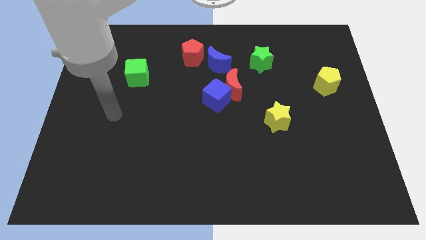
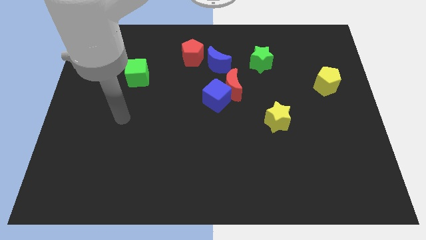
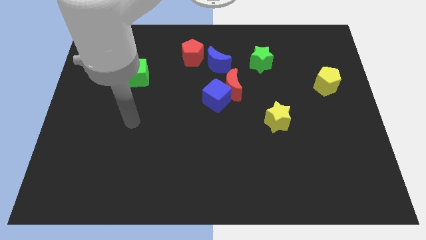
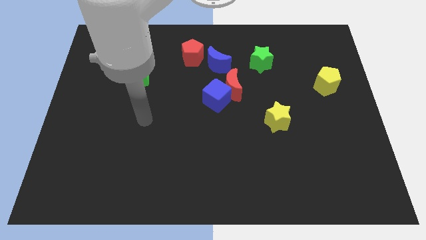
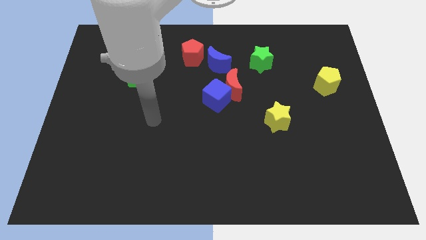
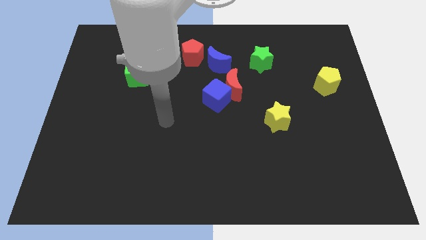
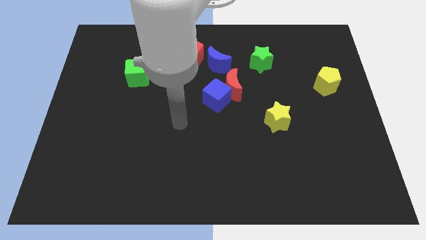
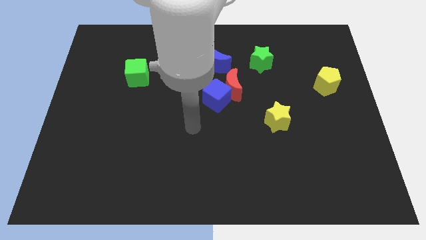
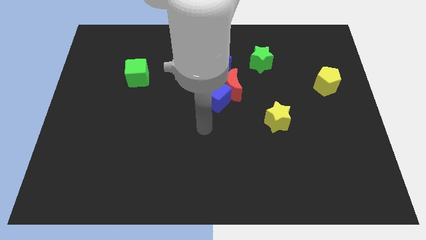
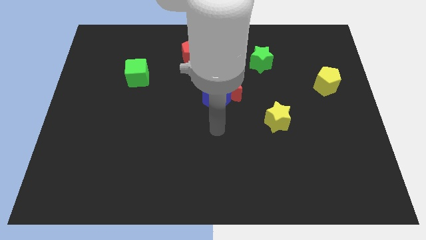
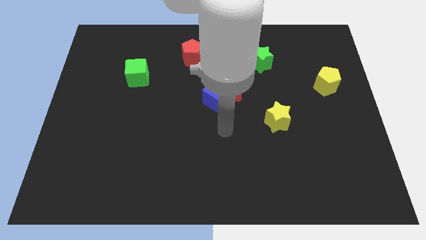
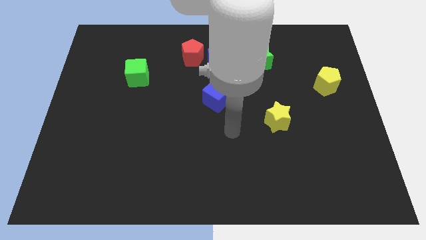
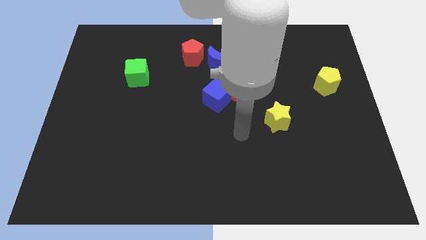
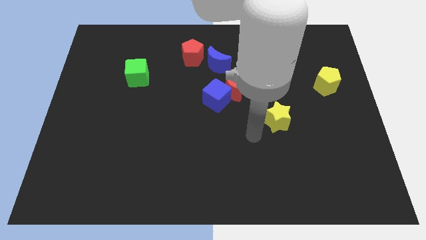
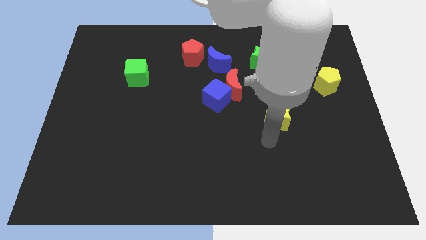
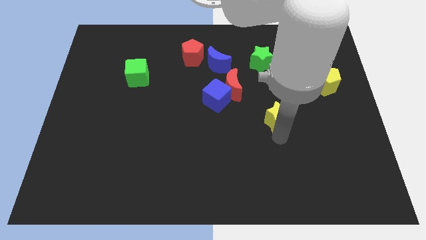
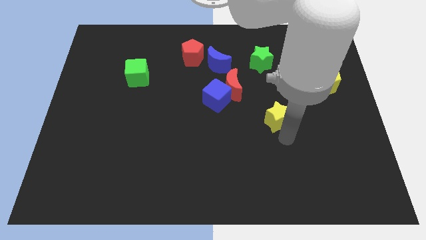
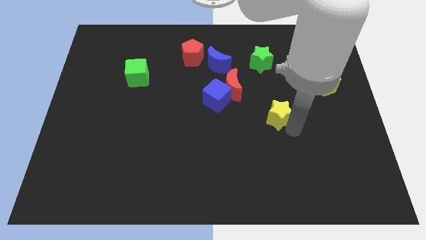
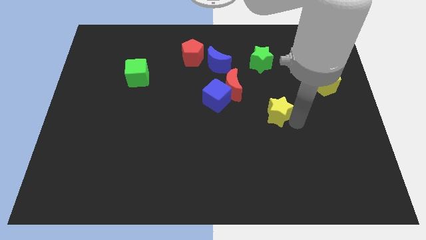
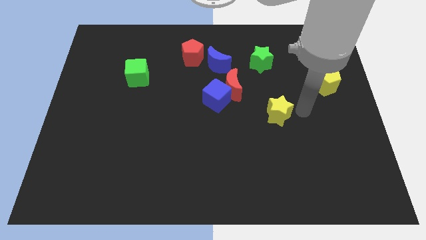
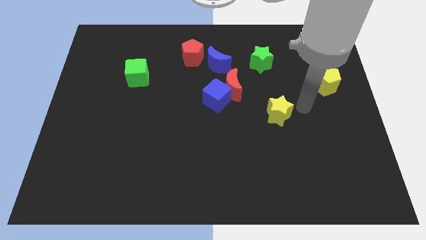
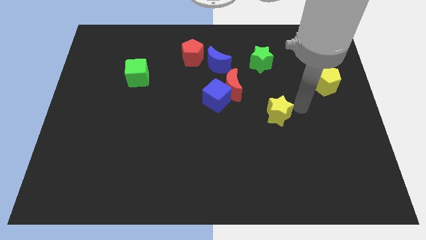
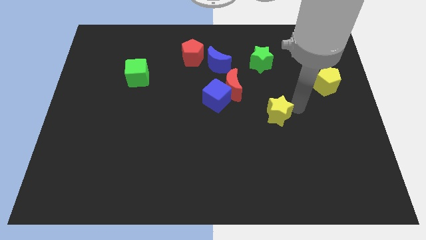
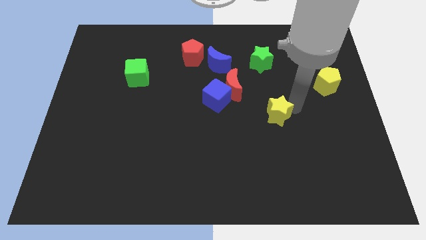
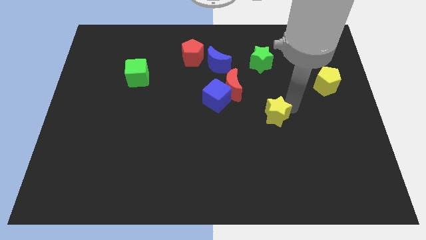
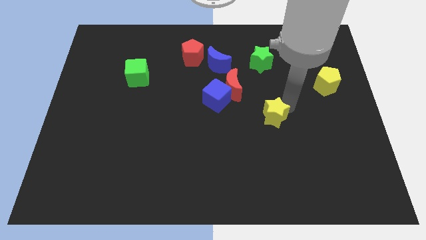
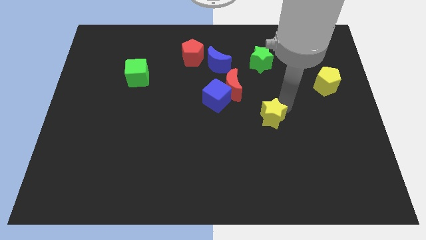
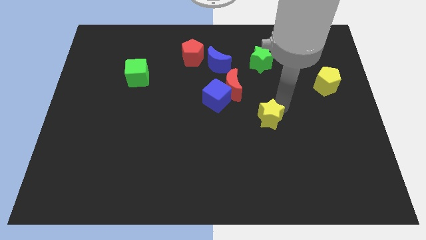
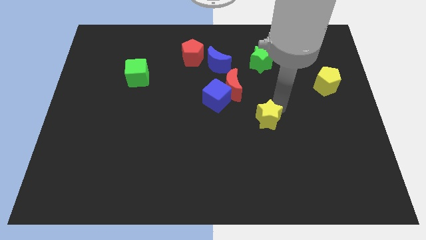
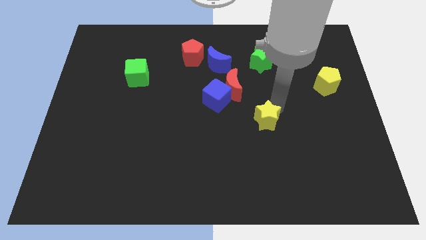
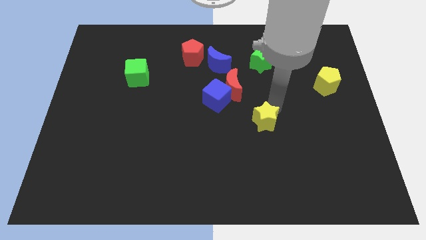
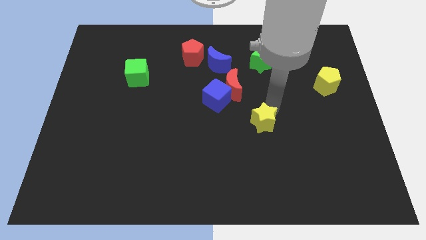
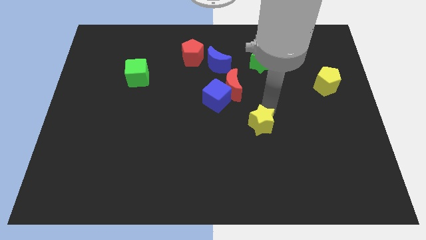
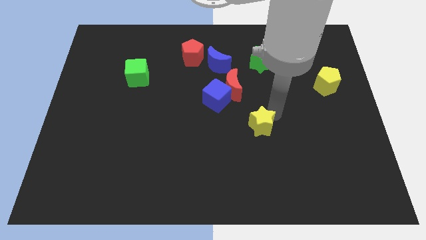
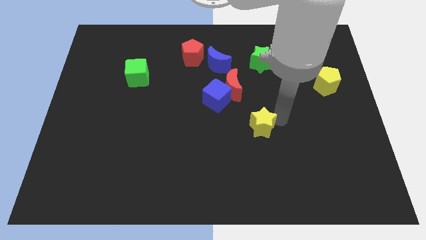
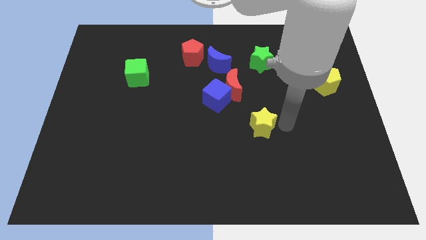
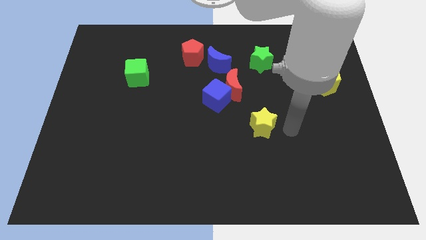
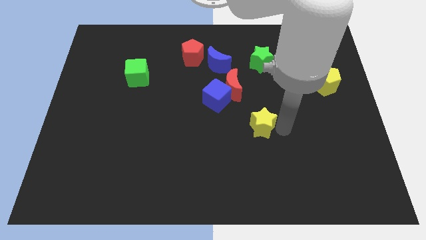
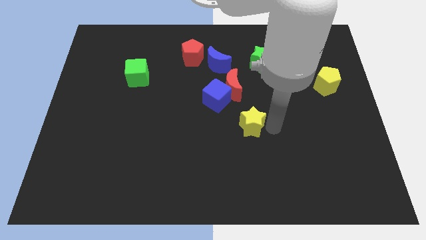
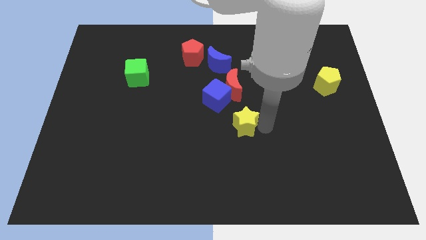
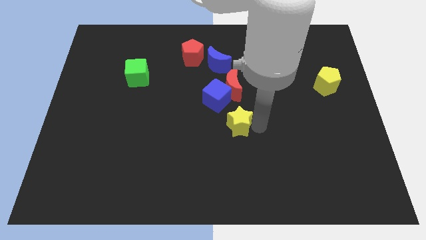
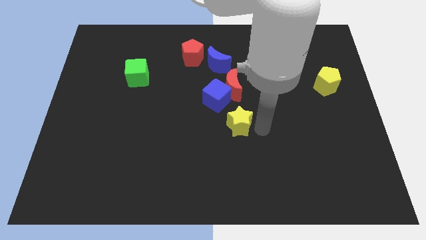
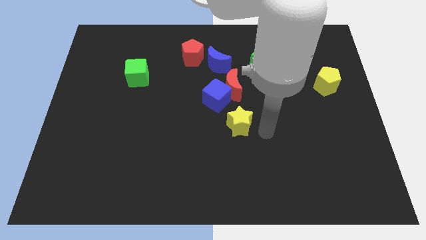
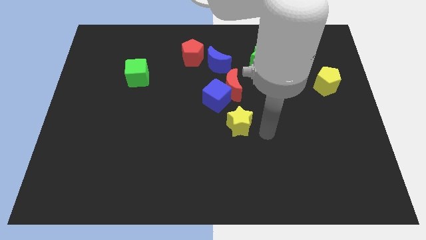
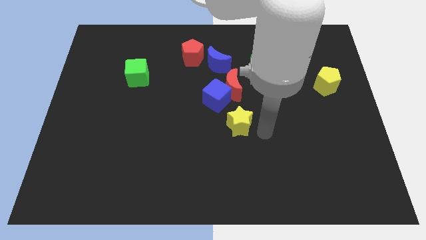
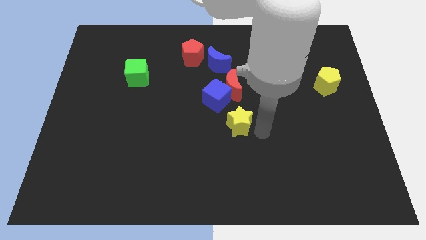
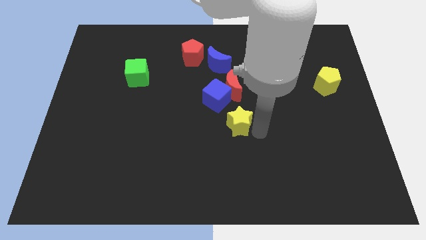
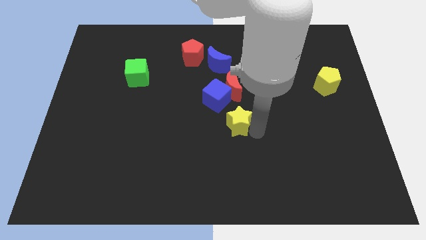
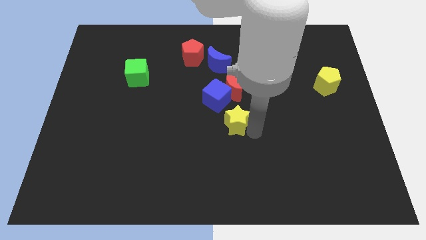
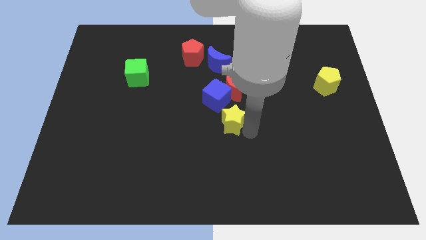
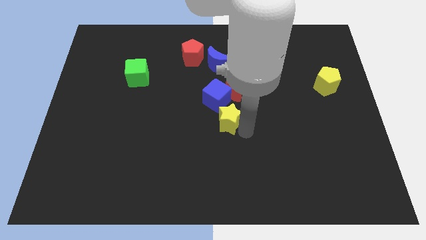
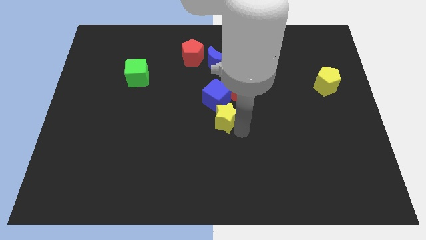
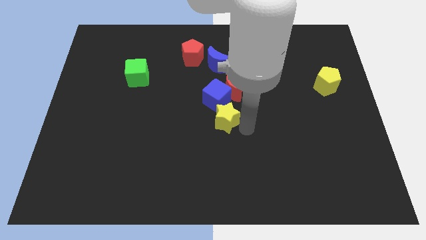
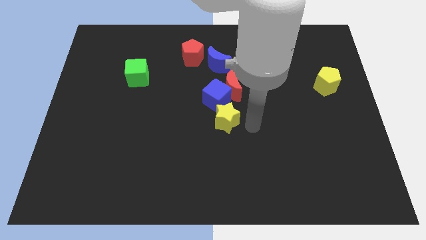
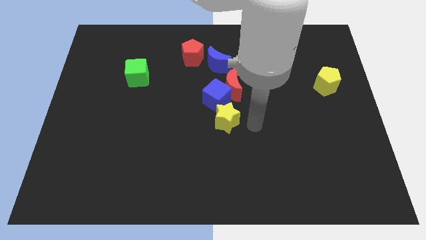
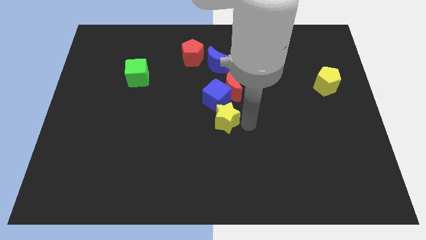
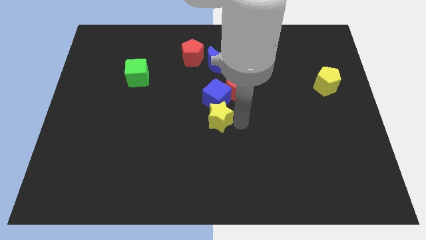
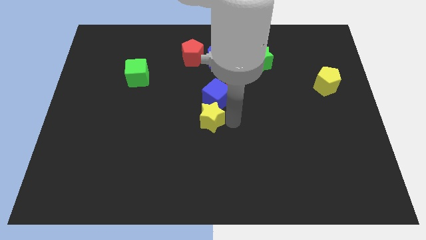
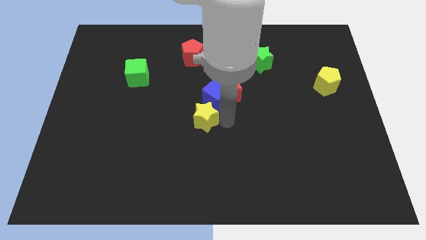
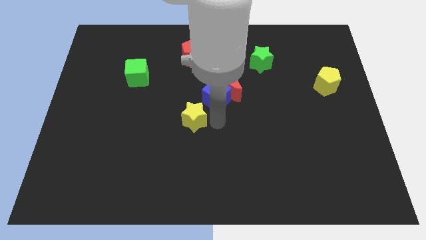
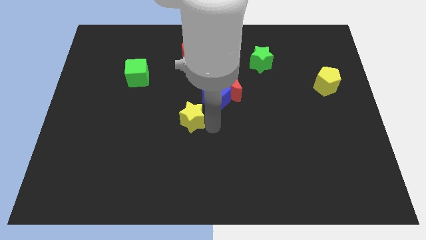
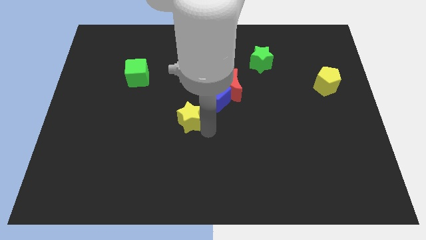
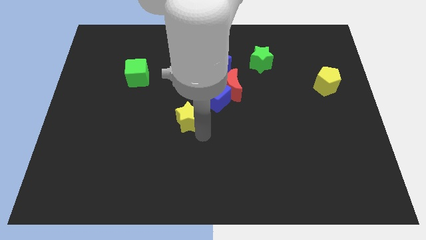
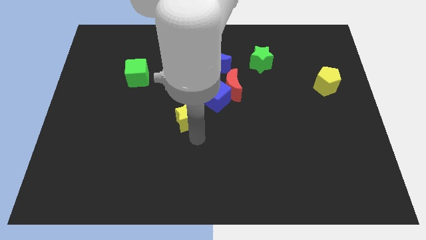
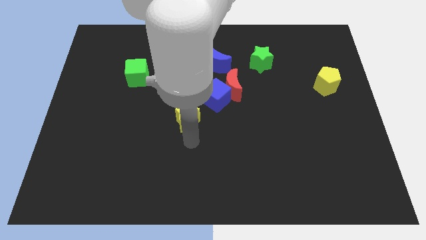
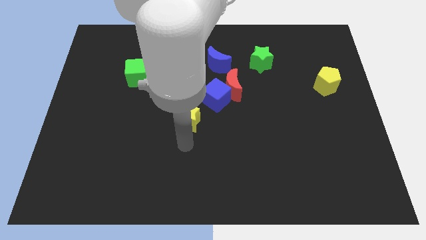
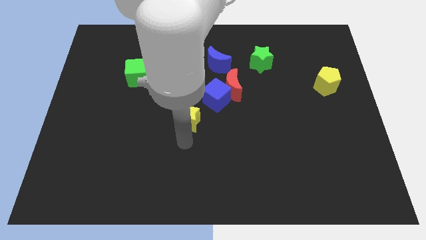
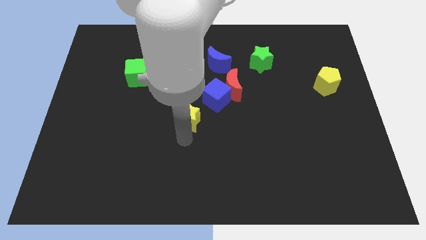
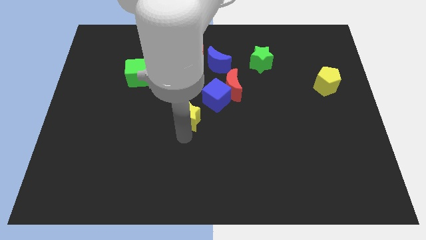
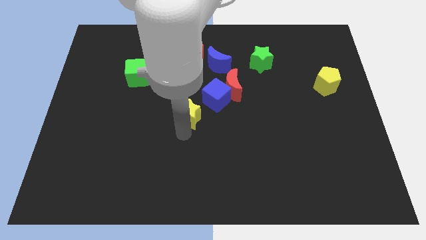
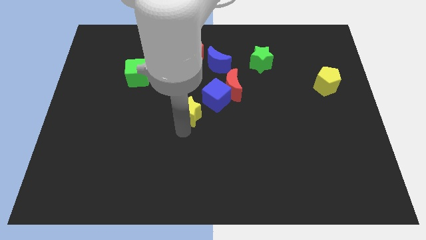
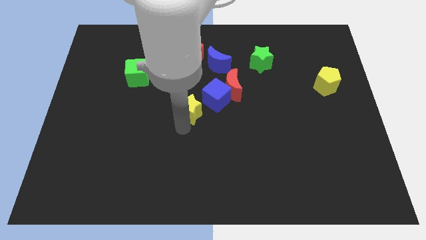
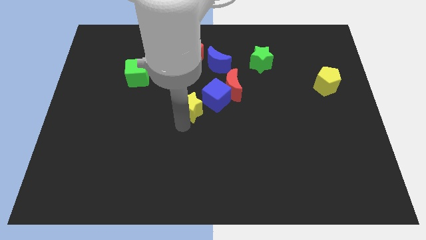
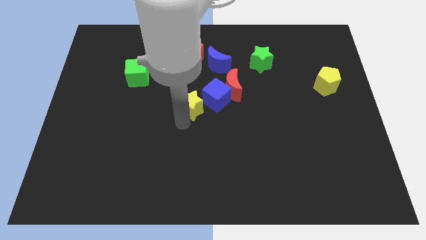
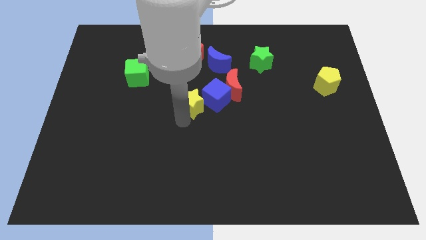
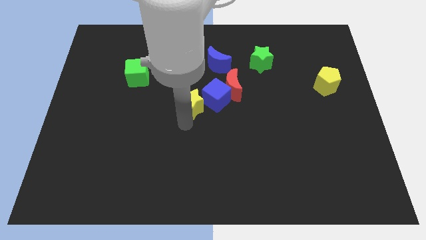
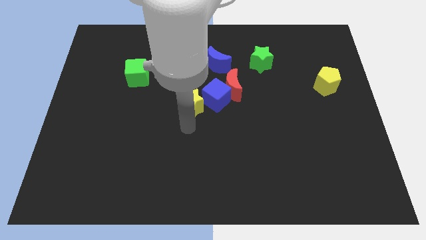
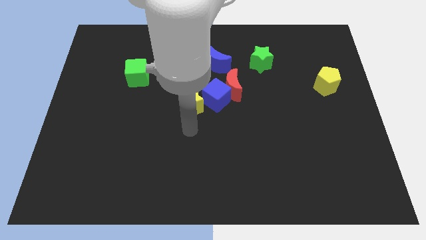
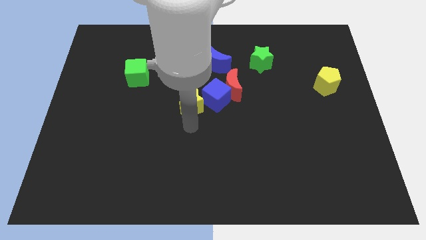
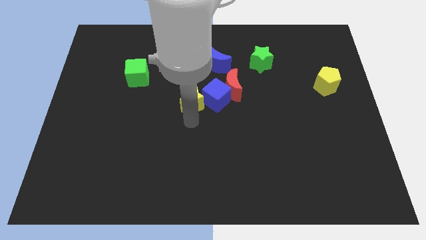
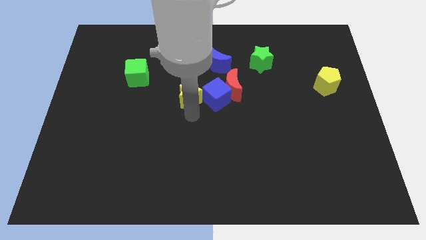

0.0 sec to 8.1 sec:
slide the yellow star to the top left side of the blue cube
